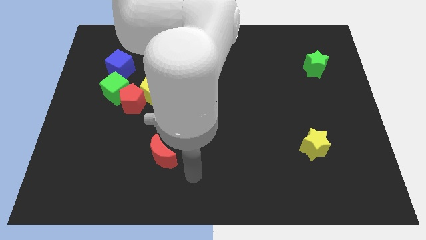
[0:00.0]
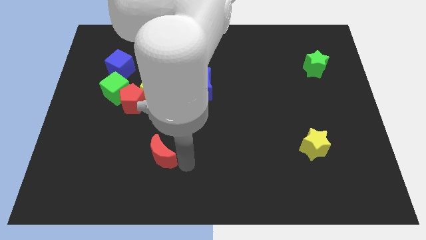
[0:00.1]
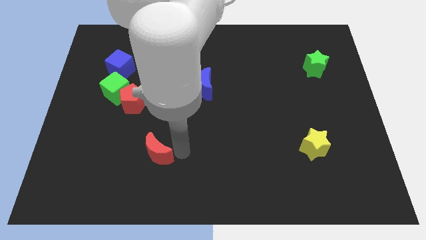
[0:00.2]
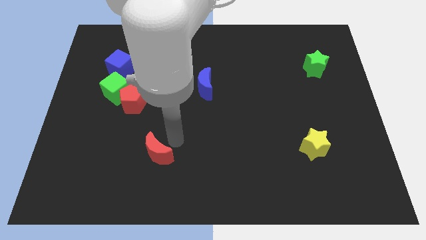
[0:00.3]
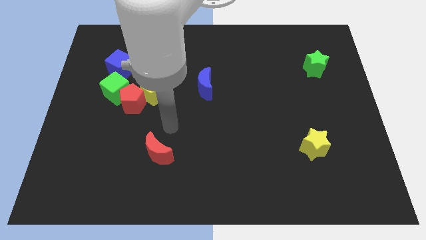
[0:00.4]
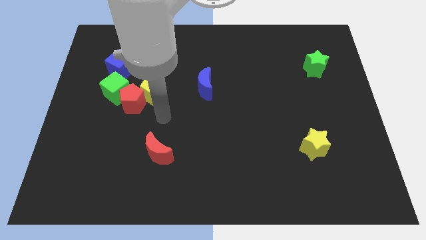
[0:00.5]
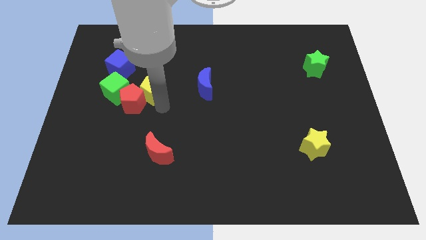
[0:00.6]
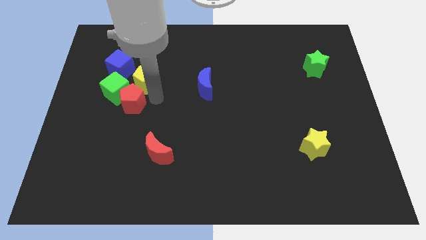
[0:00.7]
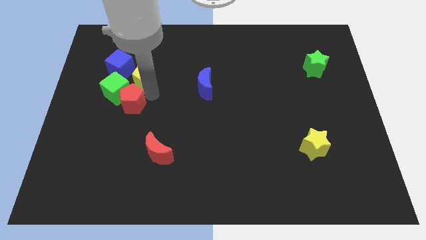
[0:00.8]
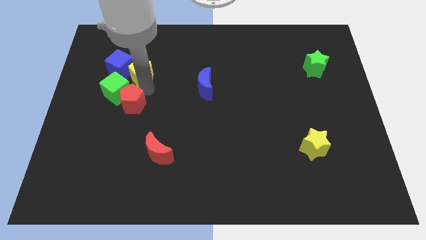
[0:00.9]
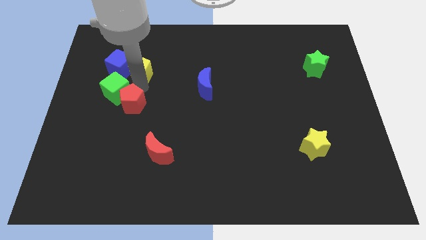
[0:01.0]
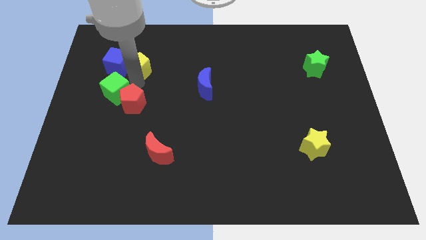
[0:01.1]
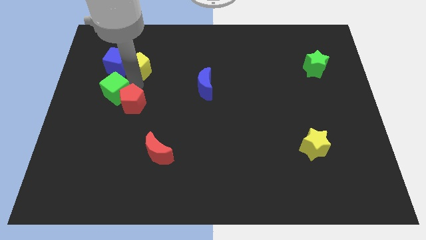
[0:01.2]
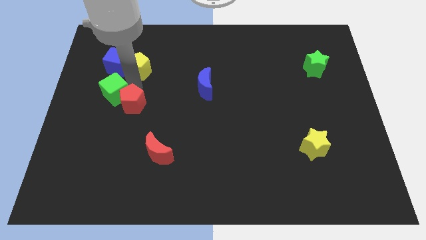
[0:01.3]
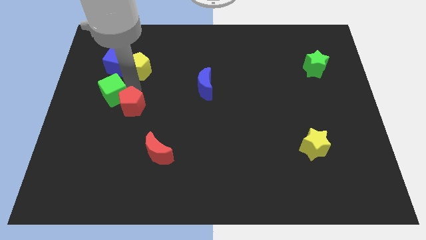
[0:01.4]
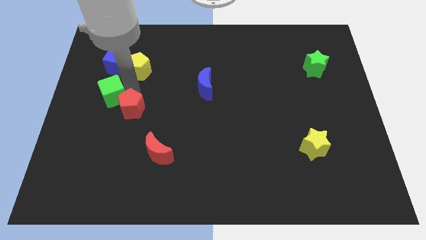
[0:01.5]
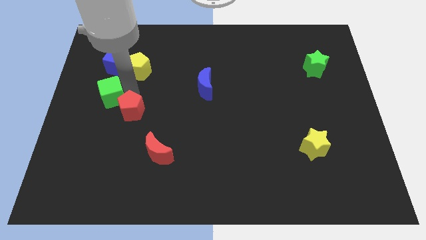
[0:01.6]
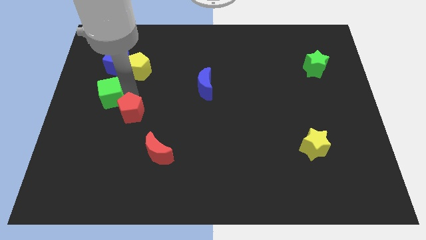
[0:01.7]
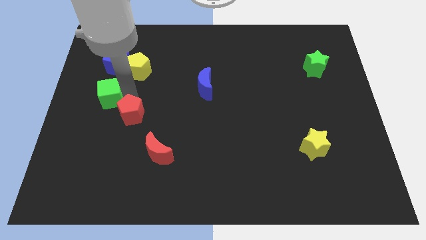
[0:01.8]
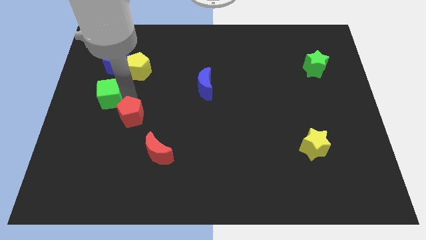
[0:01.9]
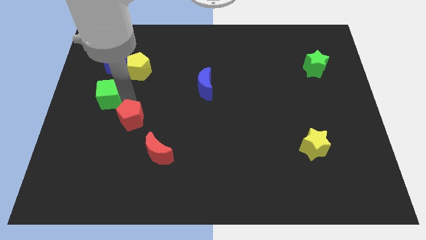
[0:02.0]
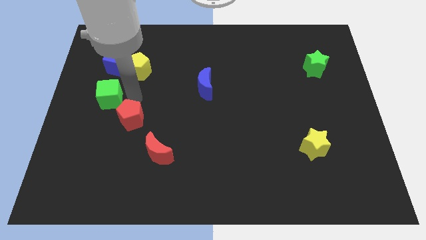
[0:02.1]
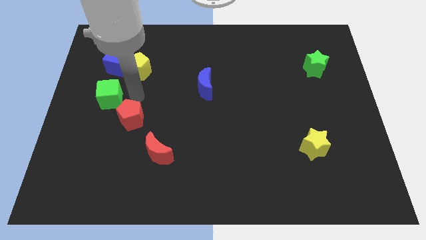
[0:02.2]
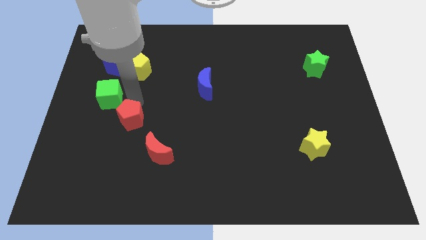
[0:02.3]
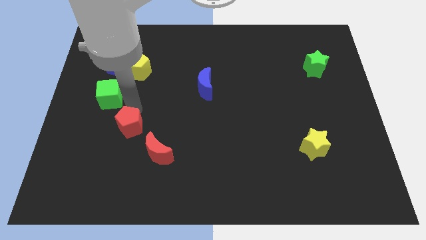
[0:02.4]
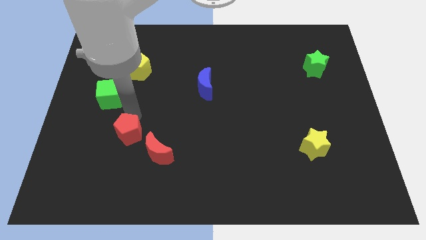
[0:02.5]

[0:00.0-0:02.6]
push the red pentagon slightly down

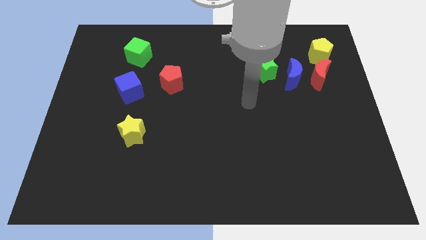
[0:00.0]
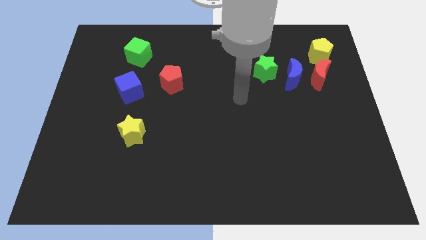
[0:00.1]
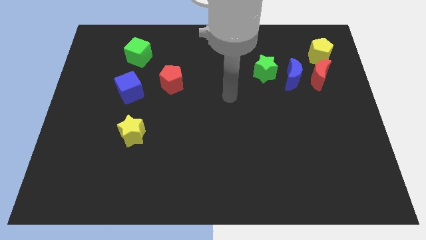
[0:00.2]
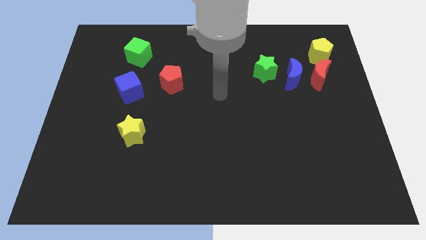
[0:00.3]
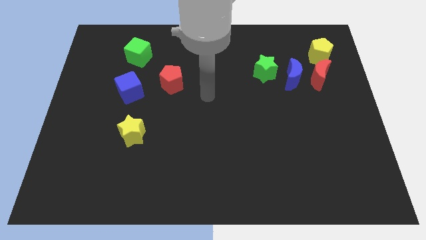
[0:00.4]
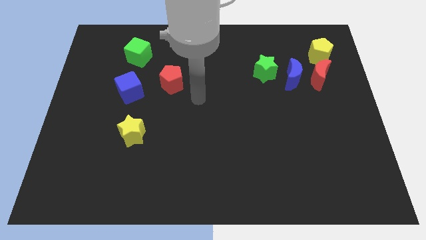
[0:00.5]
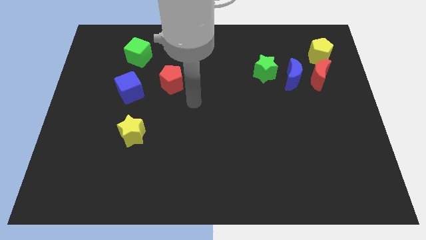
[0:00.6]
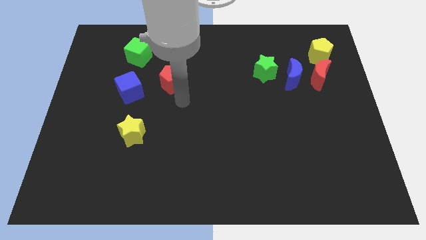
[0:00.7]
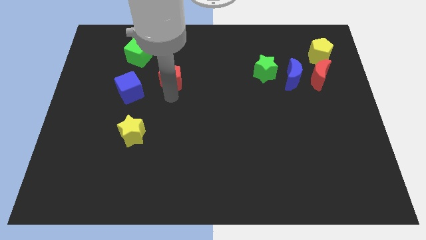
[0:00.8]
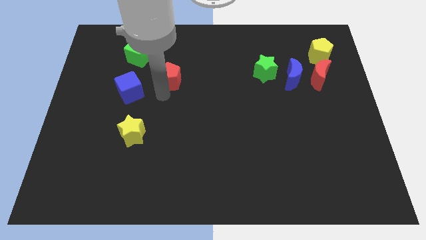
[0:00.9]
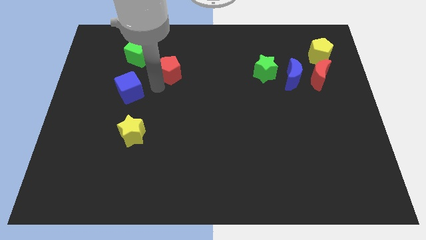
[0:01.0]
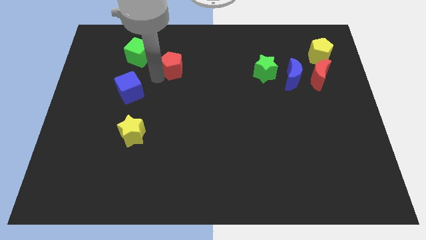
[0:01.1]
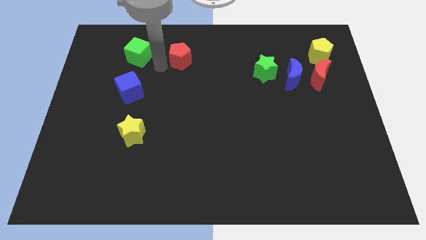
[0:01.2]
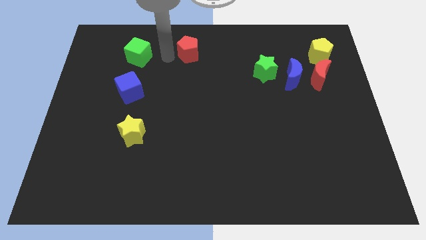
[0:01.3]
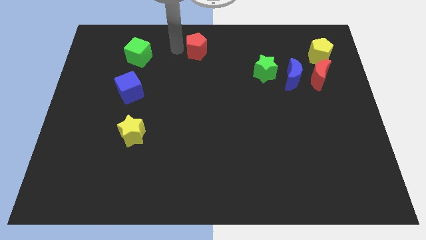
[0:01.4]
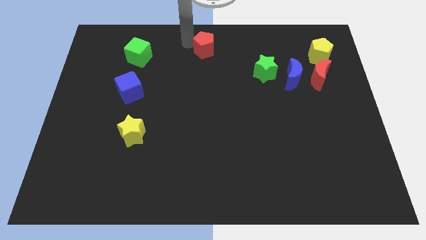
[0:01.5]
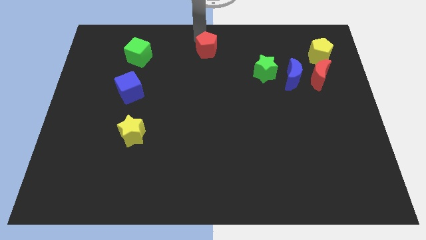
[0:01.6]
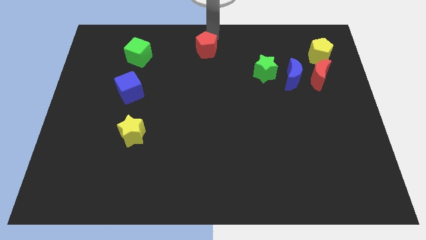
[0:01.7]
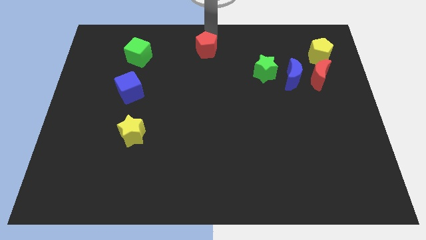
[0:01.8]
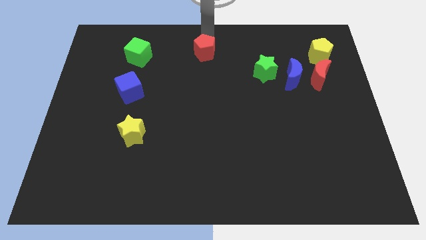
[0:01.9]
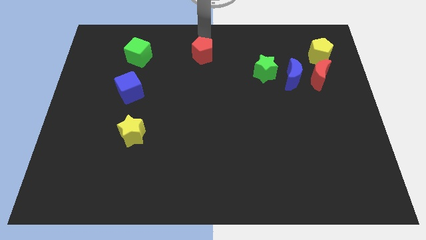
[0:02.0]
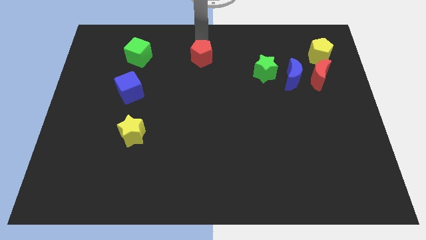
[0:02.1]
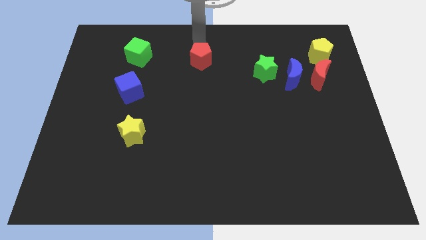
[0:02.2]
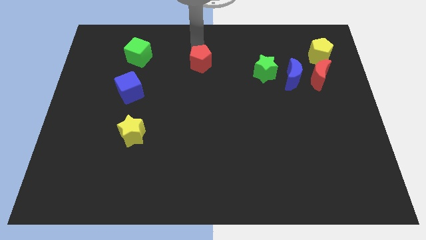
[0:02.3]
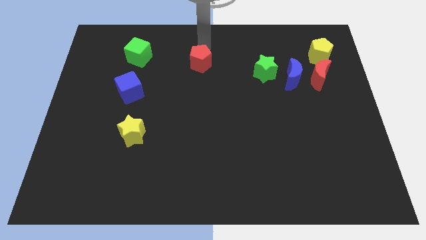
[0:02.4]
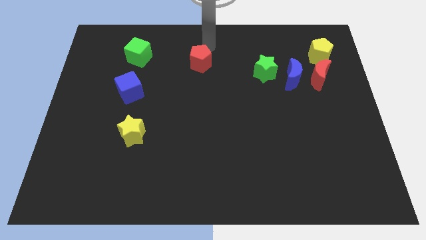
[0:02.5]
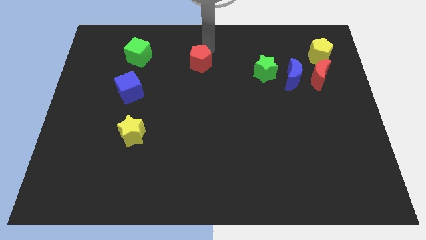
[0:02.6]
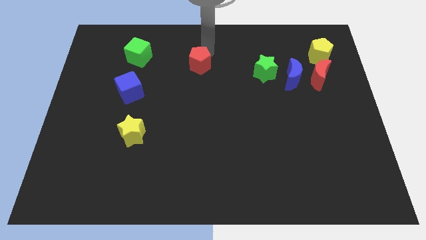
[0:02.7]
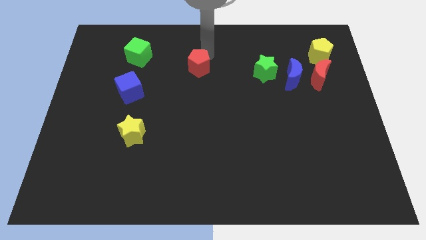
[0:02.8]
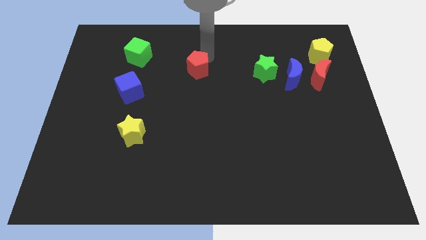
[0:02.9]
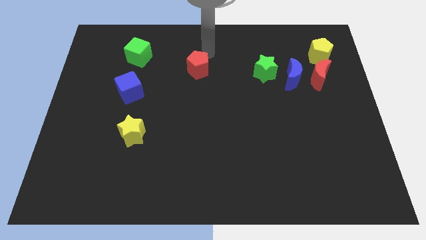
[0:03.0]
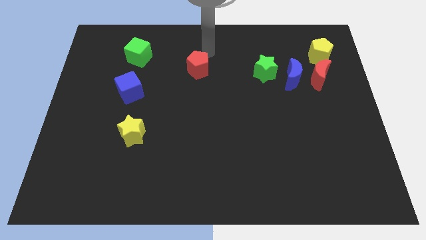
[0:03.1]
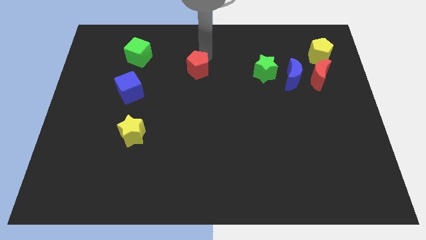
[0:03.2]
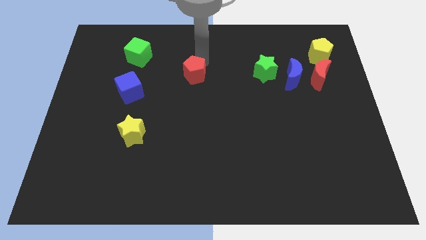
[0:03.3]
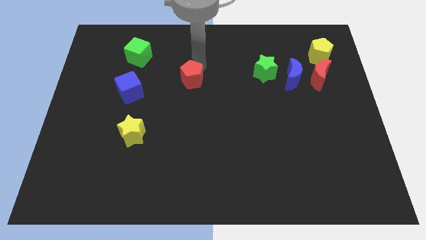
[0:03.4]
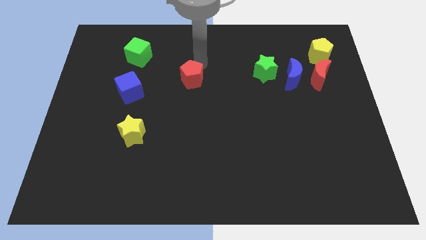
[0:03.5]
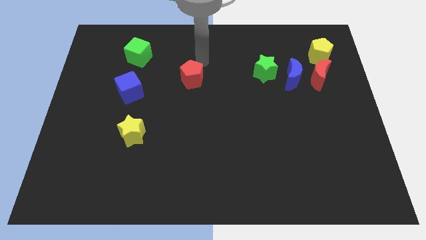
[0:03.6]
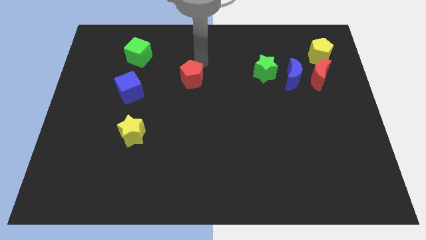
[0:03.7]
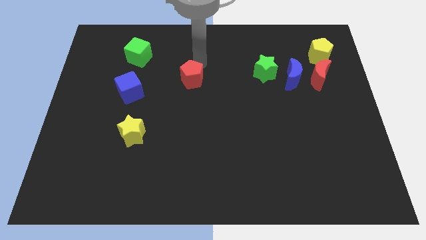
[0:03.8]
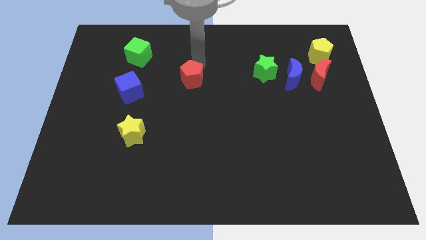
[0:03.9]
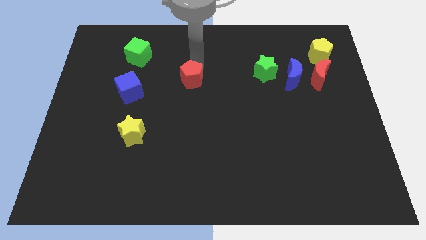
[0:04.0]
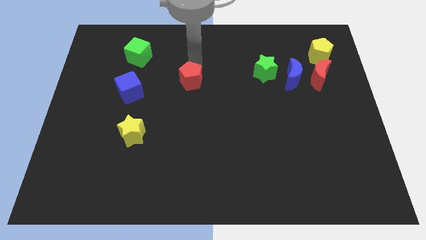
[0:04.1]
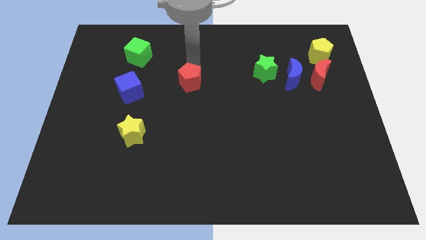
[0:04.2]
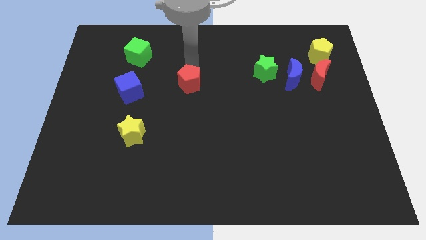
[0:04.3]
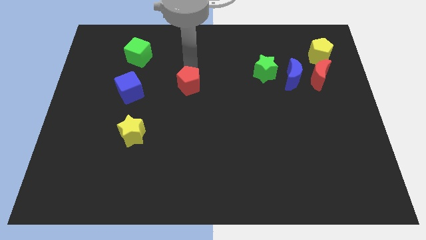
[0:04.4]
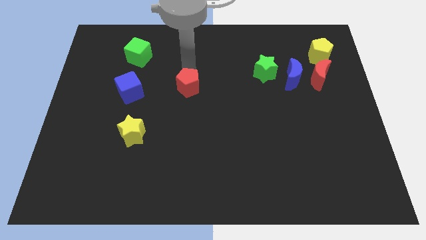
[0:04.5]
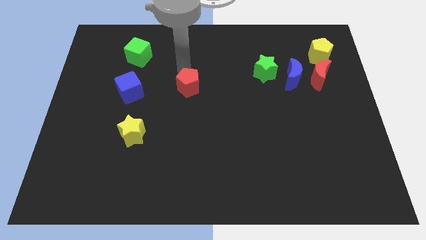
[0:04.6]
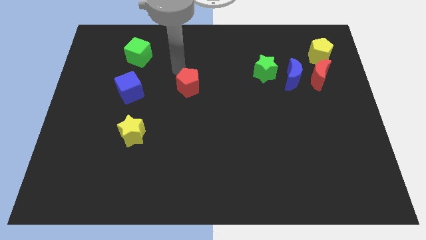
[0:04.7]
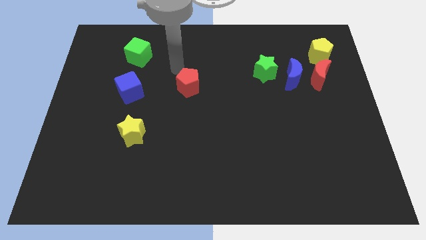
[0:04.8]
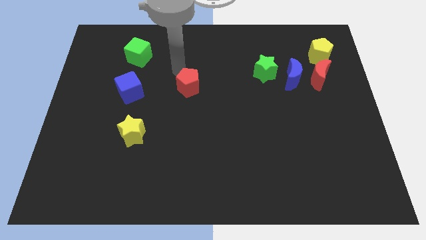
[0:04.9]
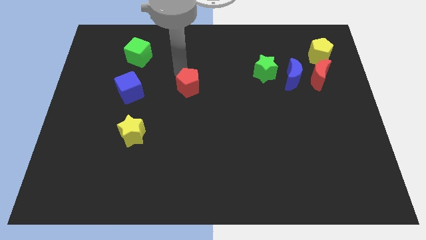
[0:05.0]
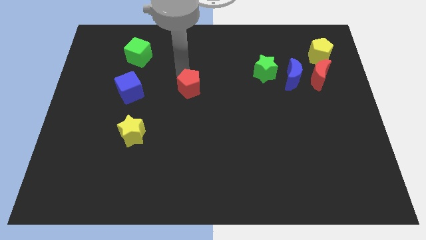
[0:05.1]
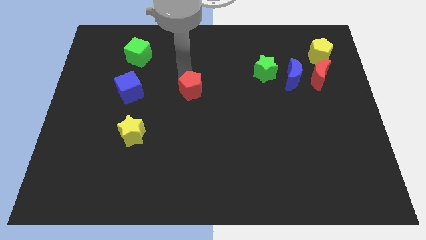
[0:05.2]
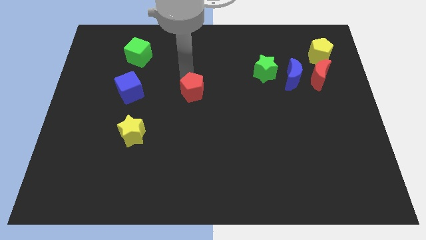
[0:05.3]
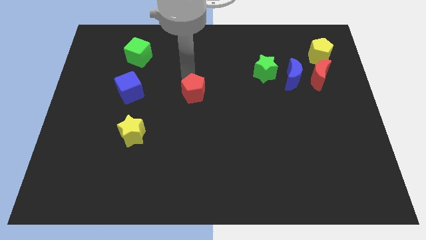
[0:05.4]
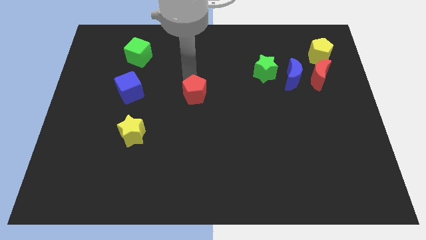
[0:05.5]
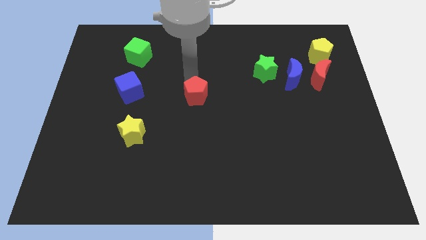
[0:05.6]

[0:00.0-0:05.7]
move the red pentagon a bit downwards and right

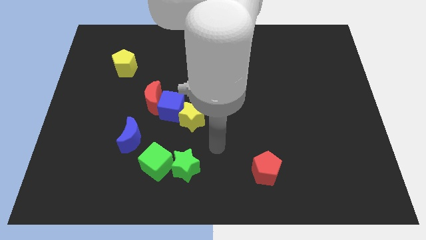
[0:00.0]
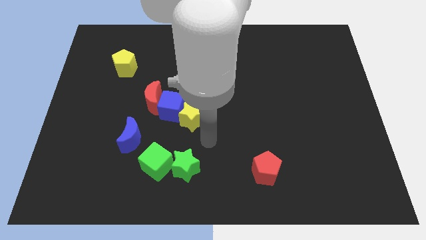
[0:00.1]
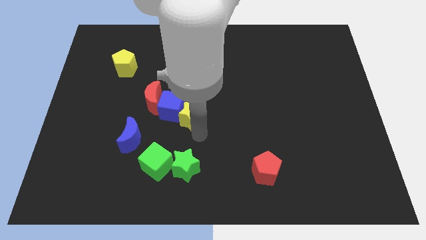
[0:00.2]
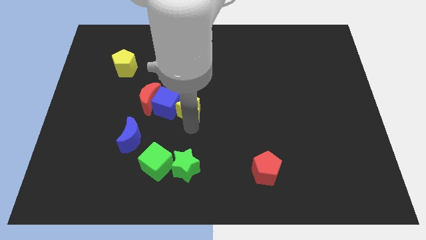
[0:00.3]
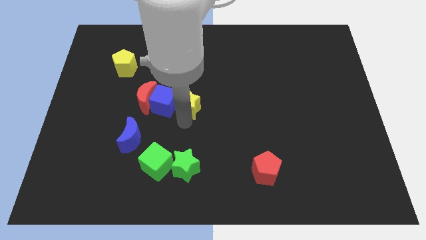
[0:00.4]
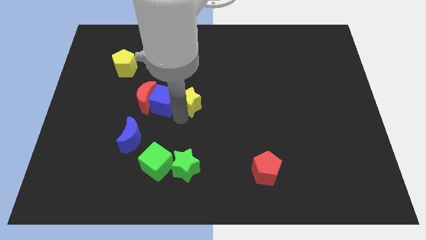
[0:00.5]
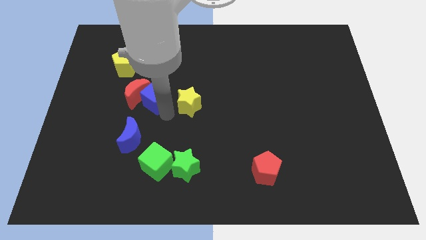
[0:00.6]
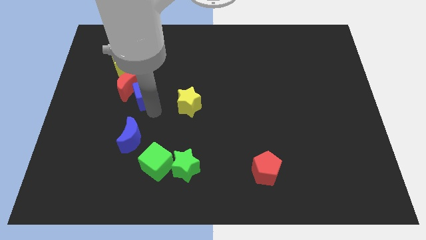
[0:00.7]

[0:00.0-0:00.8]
slightly slide the red moon up and left
